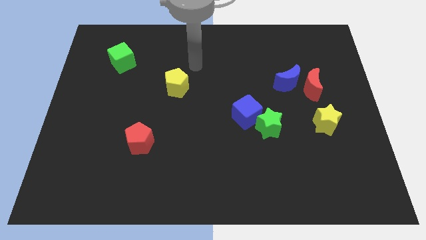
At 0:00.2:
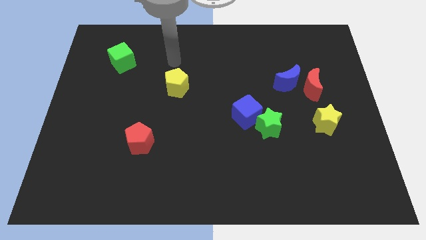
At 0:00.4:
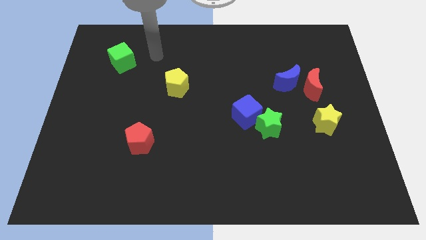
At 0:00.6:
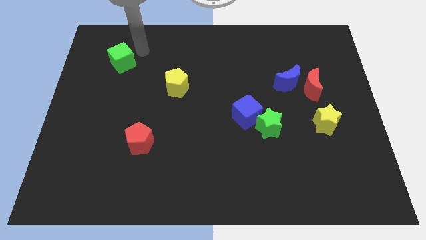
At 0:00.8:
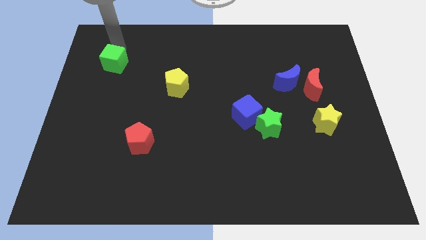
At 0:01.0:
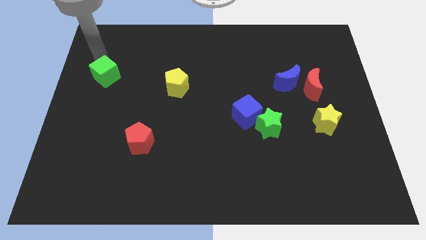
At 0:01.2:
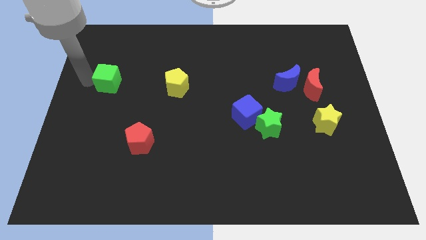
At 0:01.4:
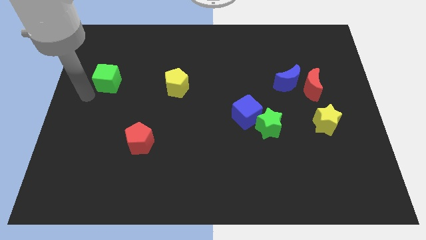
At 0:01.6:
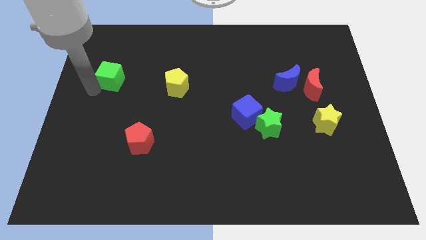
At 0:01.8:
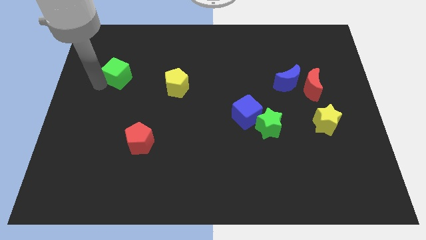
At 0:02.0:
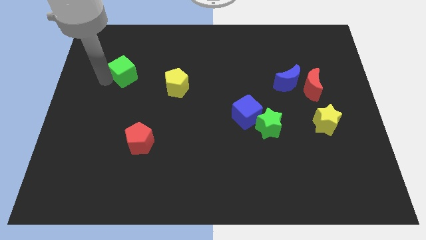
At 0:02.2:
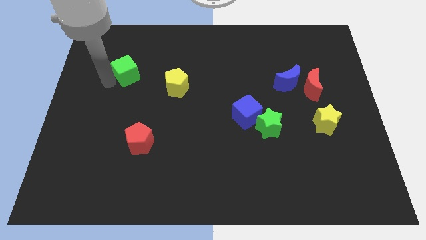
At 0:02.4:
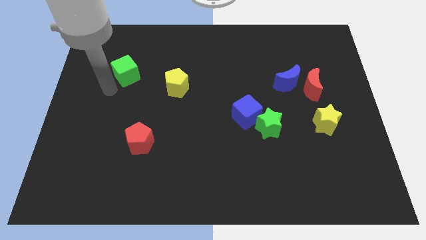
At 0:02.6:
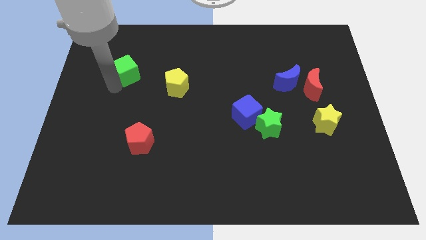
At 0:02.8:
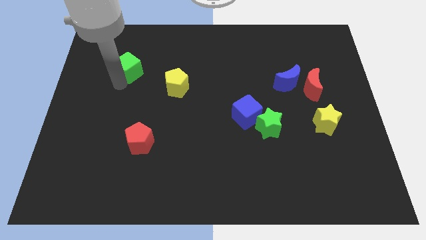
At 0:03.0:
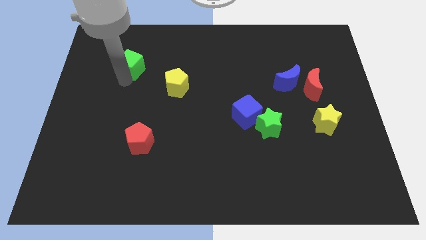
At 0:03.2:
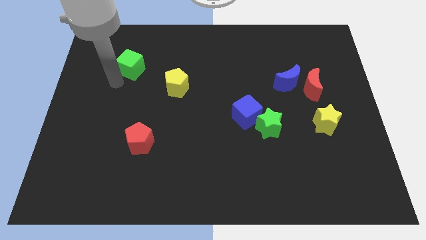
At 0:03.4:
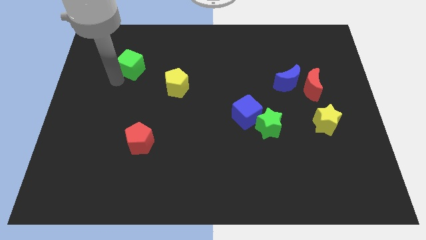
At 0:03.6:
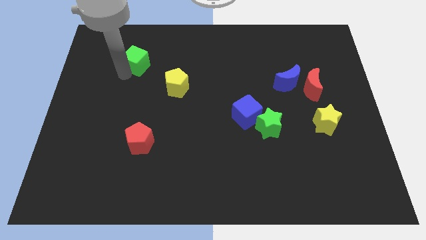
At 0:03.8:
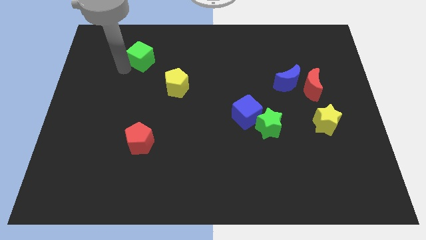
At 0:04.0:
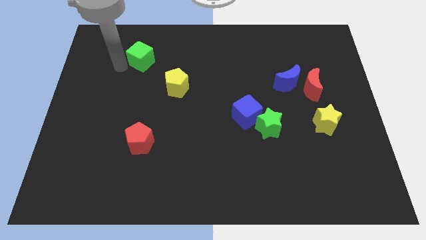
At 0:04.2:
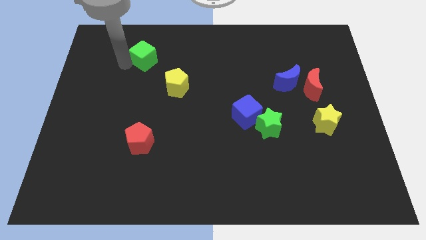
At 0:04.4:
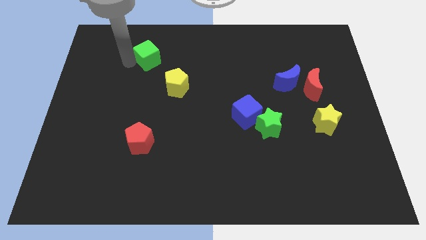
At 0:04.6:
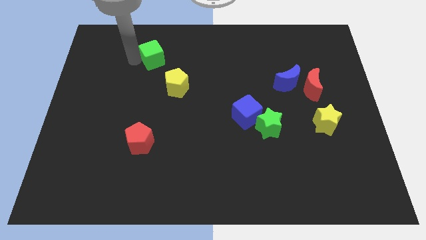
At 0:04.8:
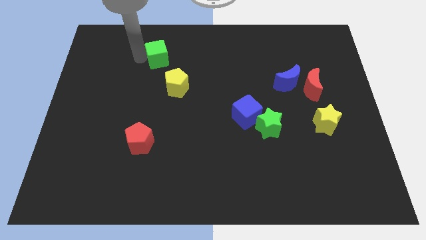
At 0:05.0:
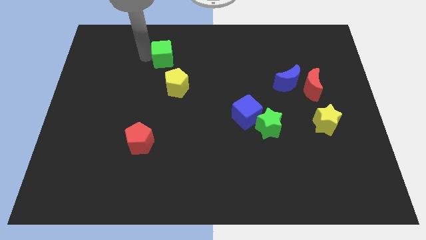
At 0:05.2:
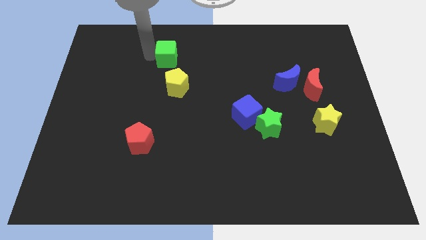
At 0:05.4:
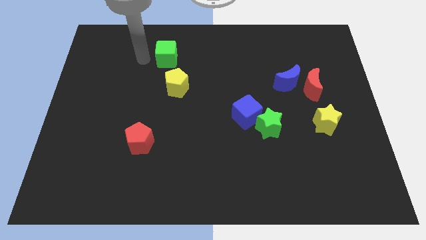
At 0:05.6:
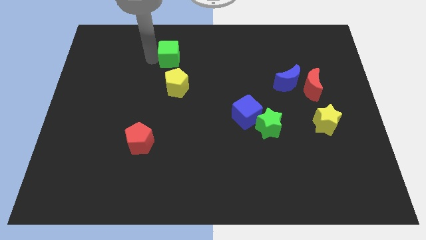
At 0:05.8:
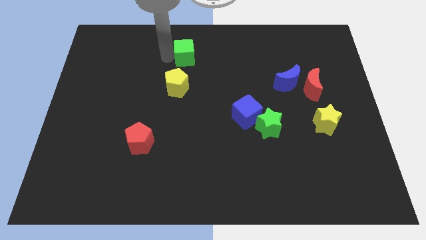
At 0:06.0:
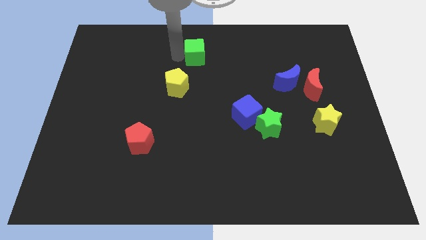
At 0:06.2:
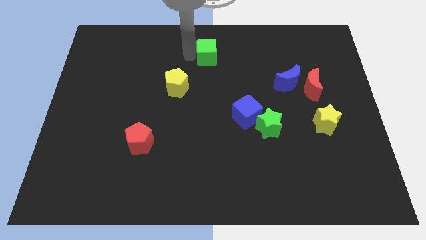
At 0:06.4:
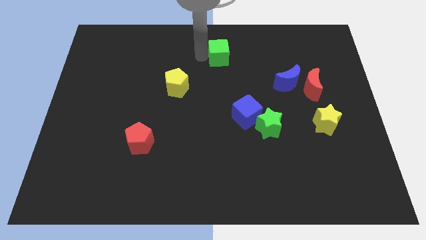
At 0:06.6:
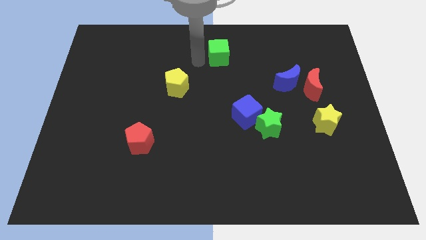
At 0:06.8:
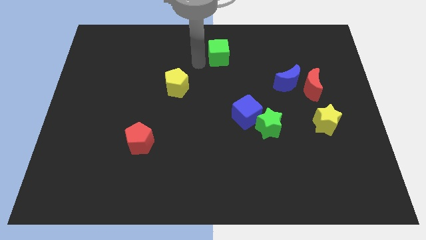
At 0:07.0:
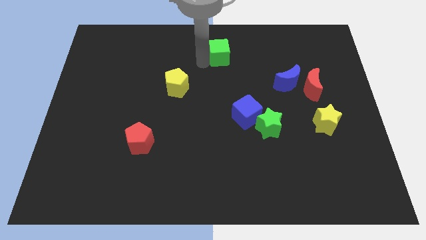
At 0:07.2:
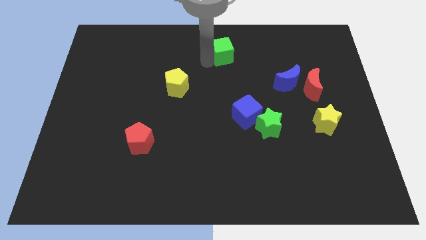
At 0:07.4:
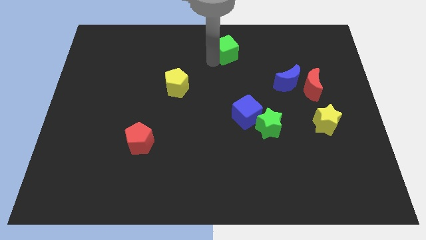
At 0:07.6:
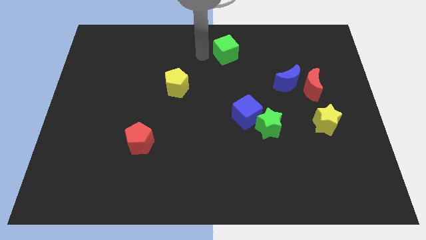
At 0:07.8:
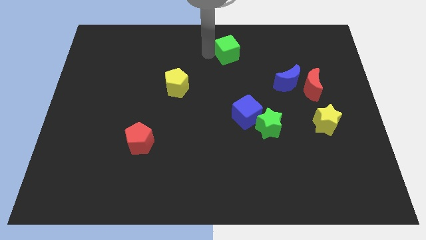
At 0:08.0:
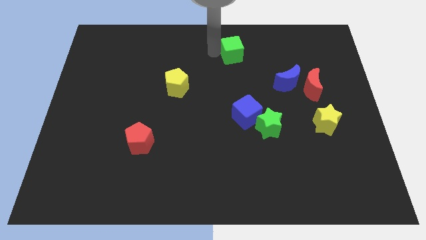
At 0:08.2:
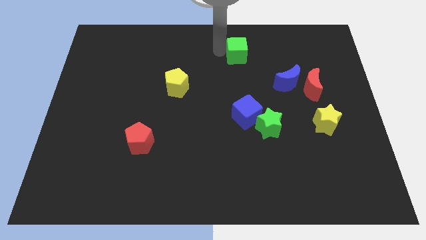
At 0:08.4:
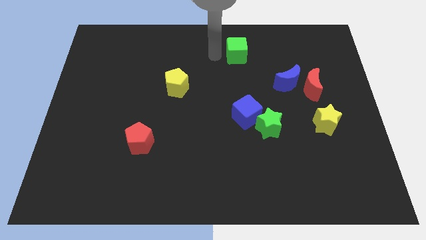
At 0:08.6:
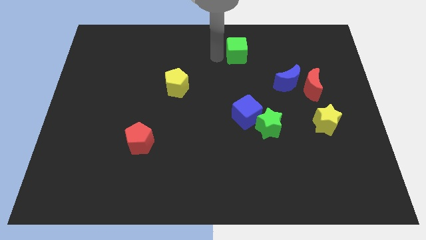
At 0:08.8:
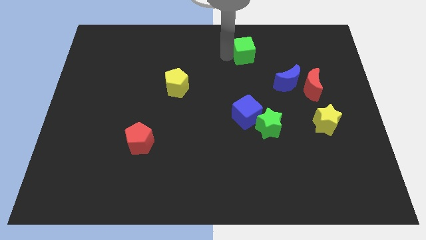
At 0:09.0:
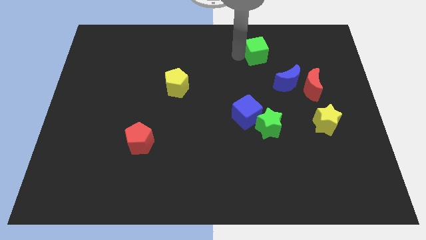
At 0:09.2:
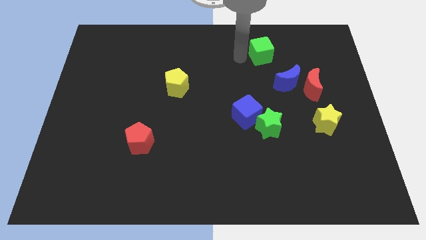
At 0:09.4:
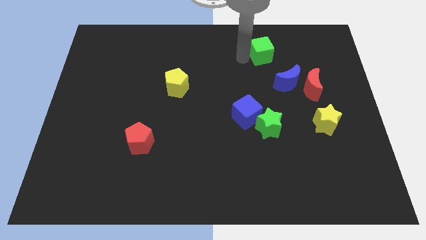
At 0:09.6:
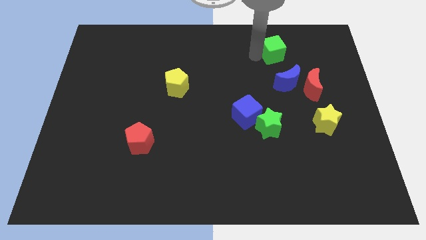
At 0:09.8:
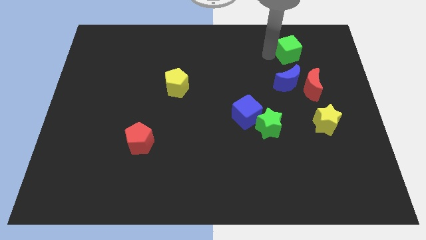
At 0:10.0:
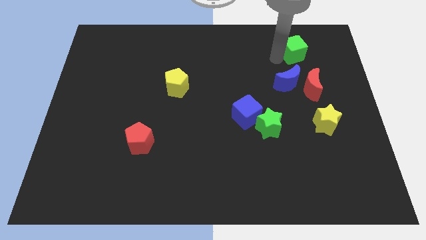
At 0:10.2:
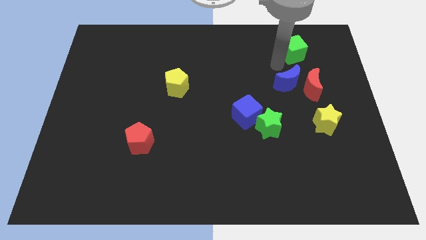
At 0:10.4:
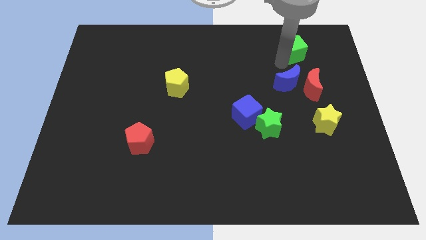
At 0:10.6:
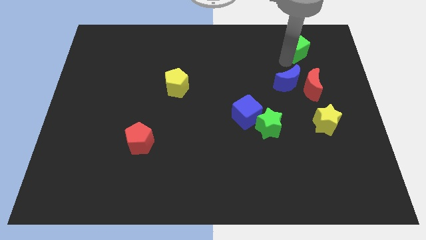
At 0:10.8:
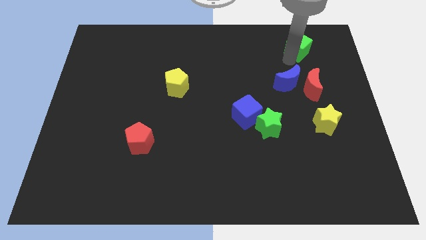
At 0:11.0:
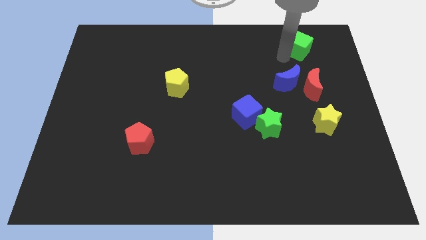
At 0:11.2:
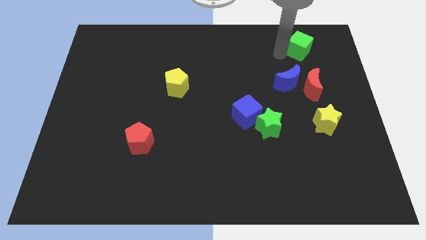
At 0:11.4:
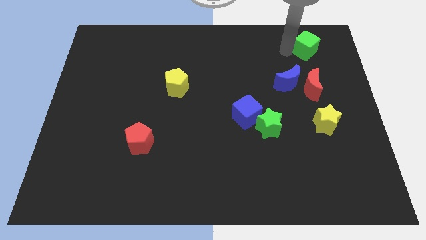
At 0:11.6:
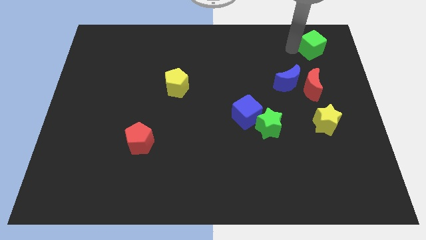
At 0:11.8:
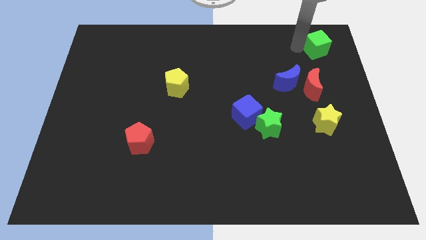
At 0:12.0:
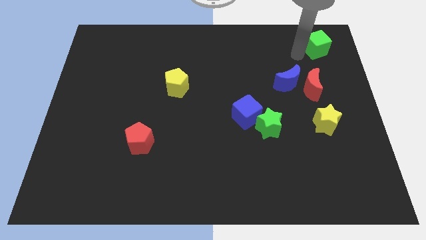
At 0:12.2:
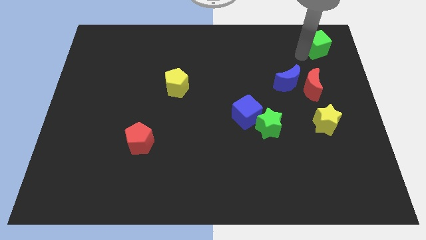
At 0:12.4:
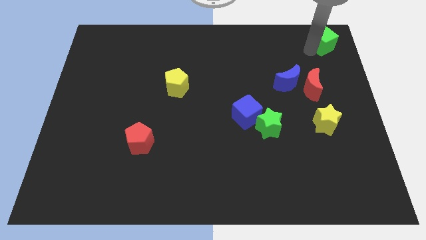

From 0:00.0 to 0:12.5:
push the green cube to the top right of the board

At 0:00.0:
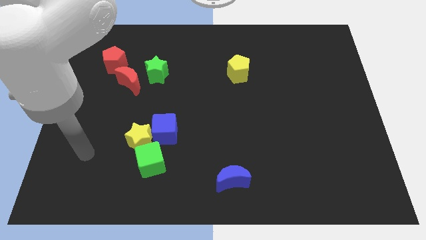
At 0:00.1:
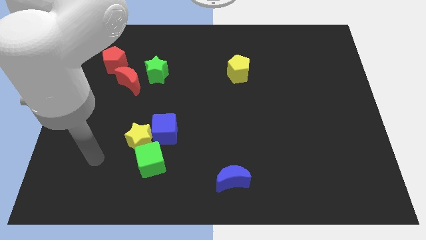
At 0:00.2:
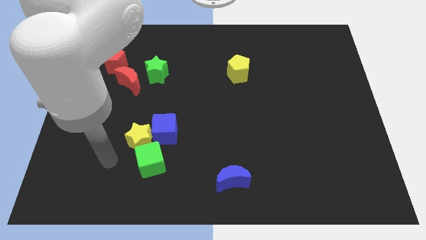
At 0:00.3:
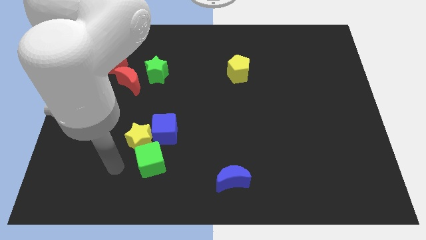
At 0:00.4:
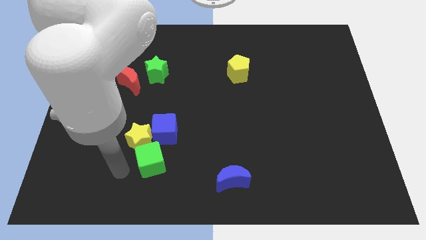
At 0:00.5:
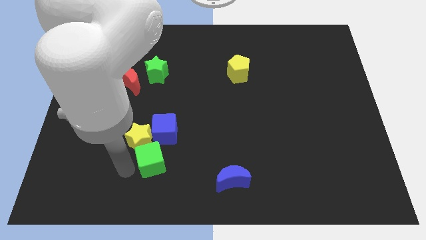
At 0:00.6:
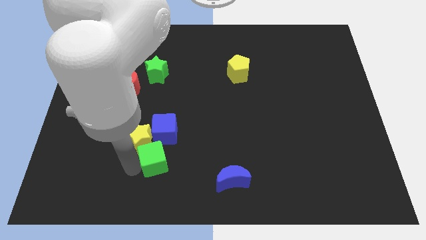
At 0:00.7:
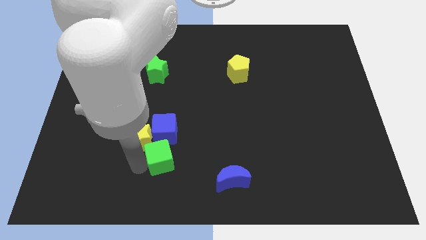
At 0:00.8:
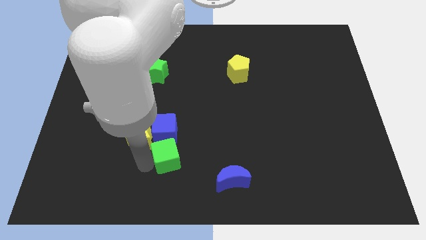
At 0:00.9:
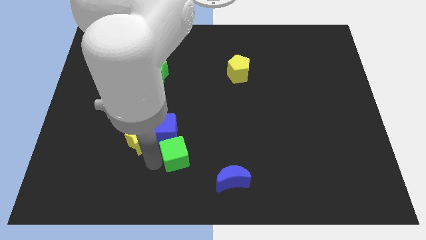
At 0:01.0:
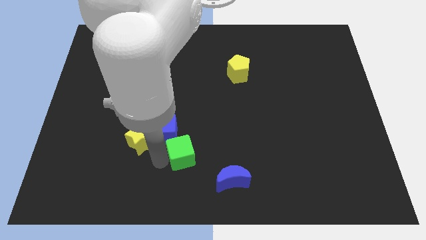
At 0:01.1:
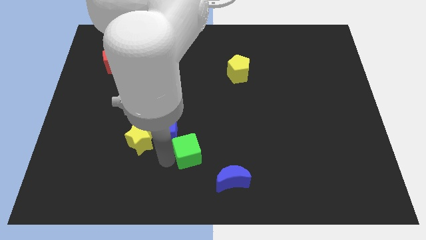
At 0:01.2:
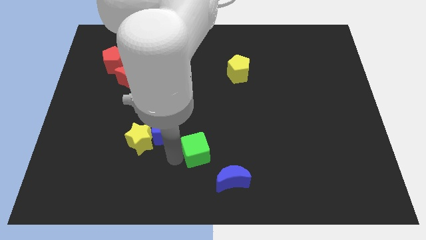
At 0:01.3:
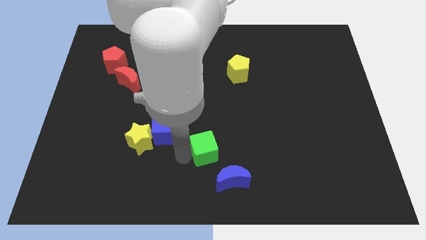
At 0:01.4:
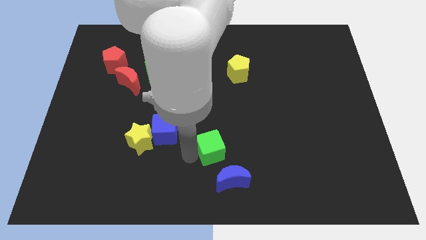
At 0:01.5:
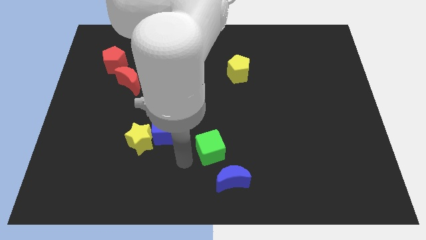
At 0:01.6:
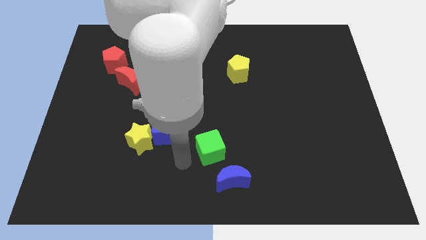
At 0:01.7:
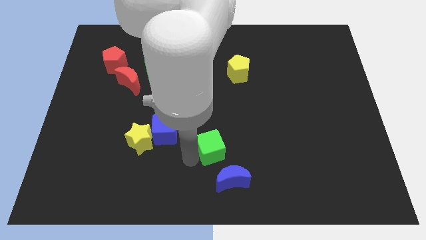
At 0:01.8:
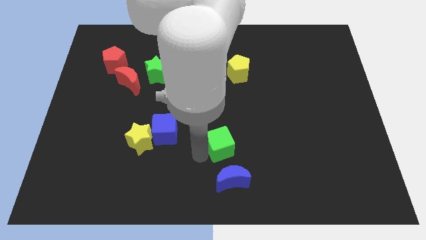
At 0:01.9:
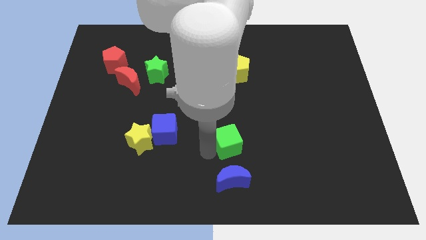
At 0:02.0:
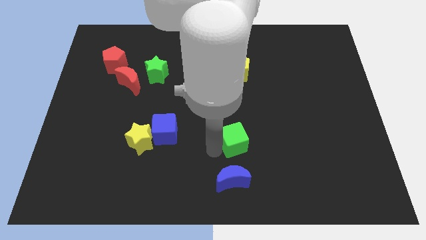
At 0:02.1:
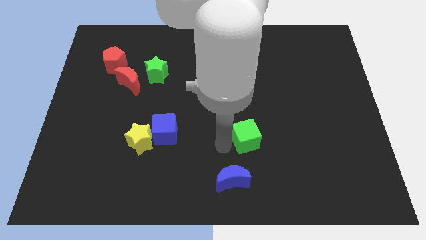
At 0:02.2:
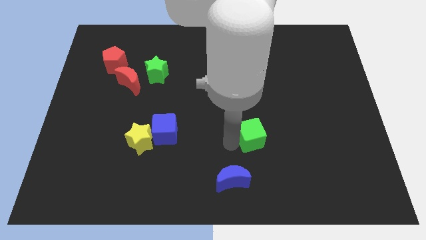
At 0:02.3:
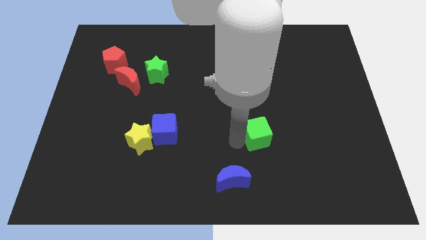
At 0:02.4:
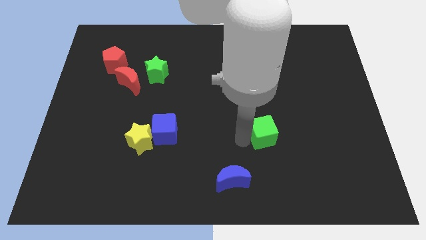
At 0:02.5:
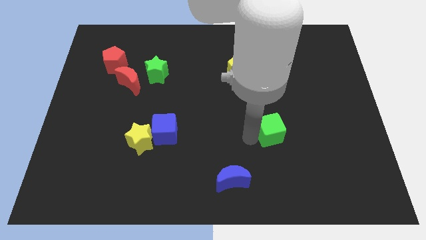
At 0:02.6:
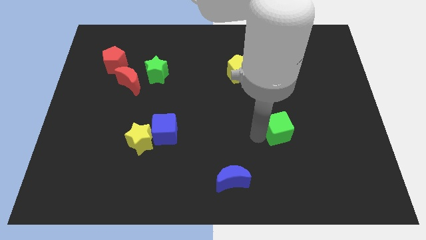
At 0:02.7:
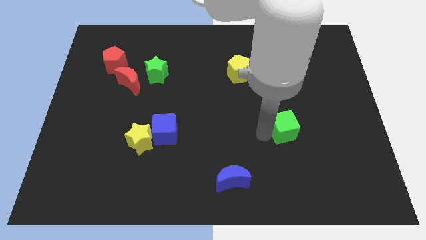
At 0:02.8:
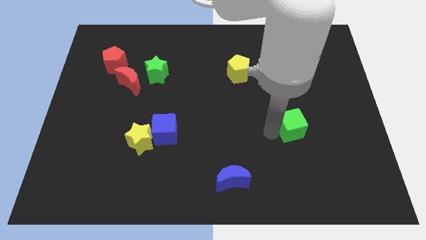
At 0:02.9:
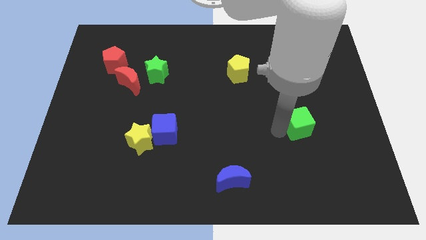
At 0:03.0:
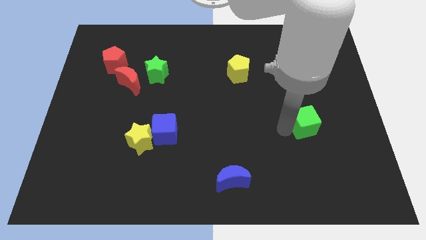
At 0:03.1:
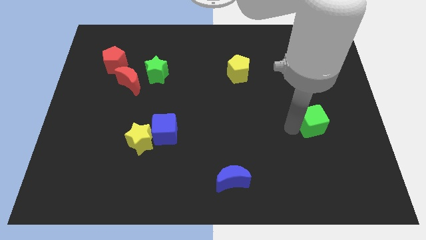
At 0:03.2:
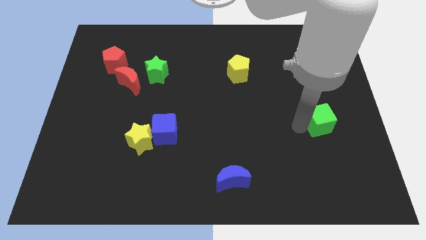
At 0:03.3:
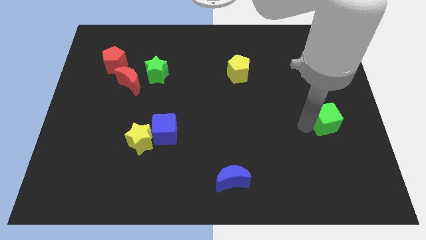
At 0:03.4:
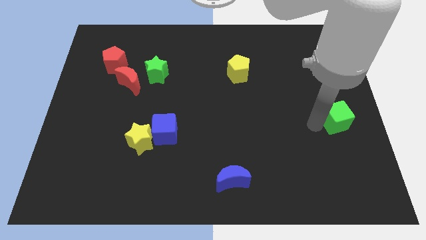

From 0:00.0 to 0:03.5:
put the green cube to the right side
